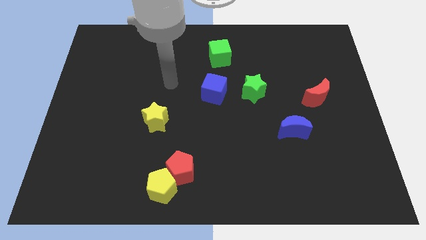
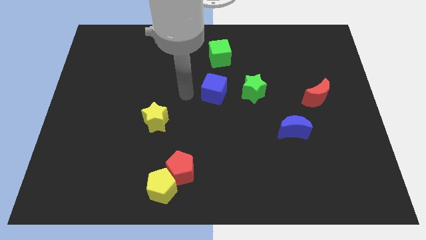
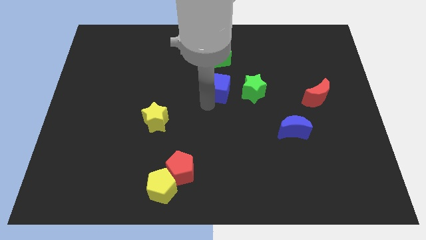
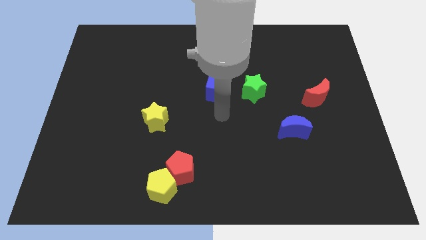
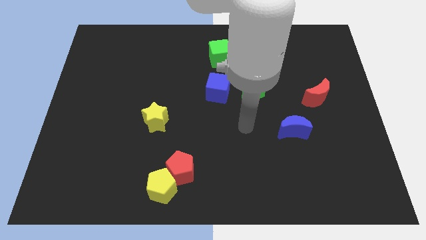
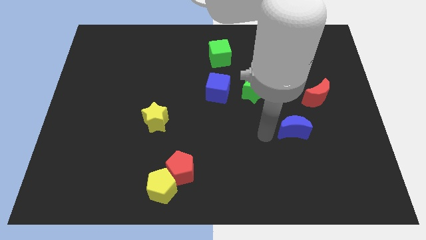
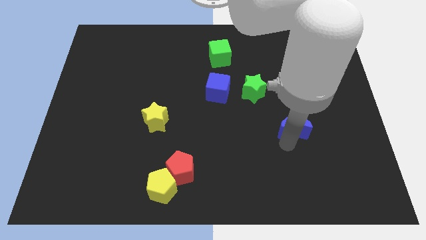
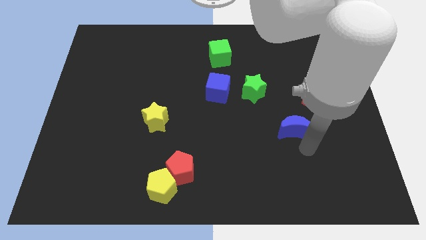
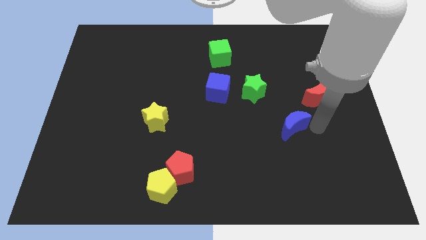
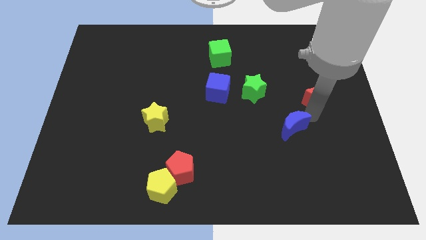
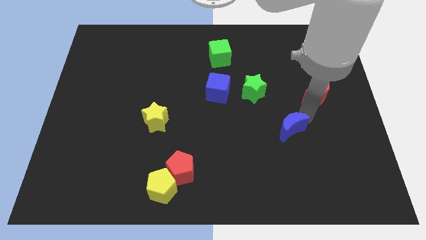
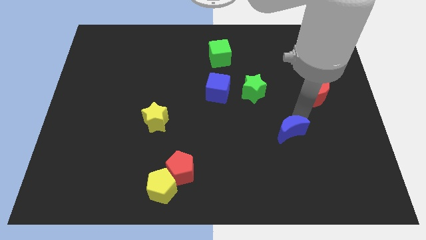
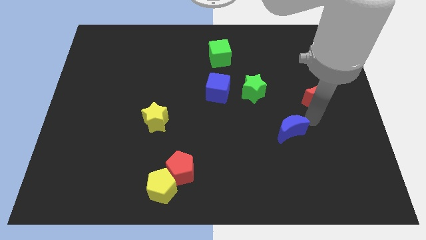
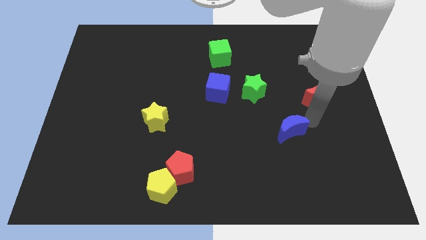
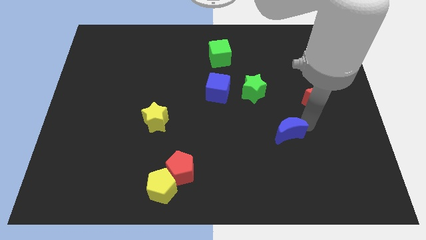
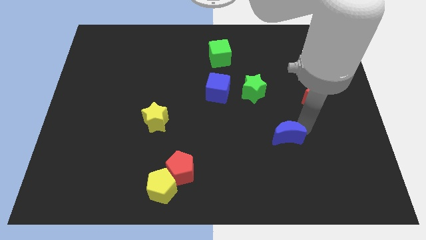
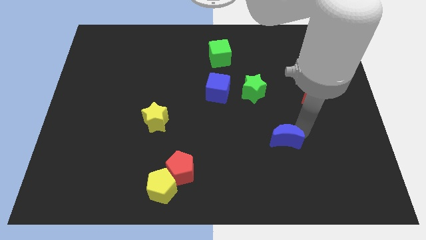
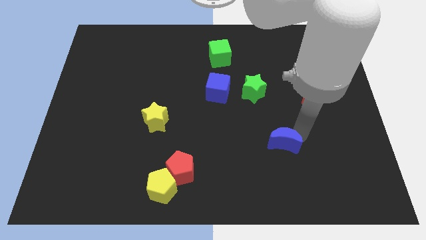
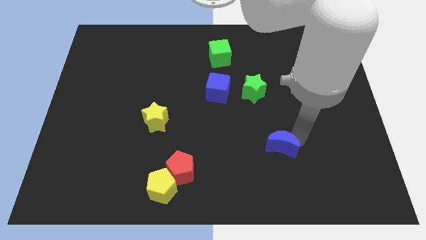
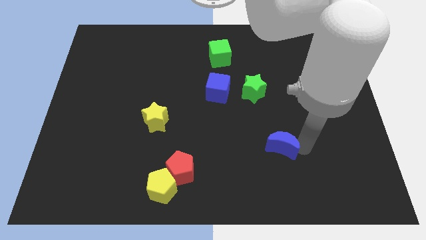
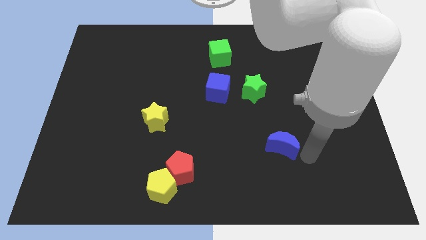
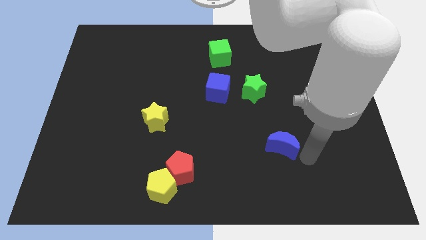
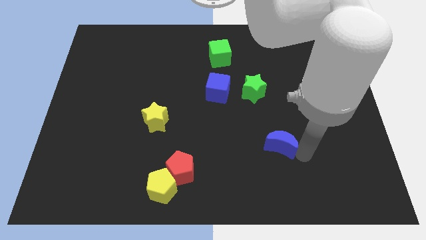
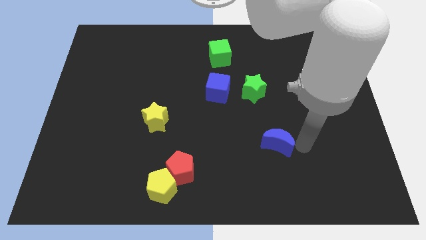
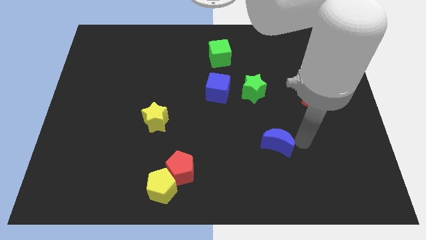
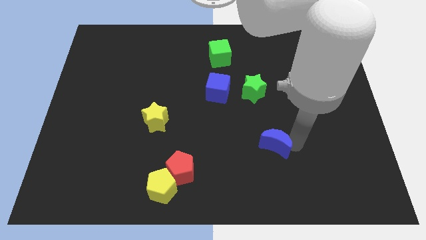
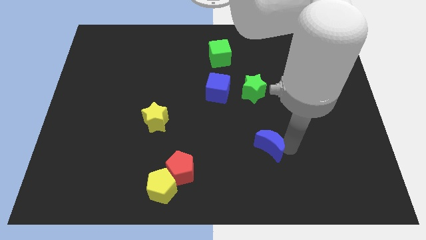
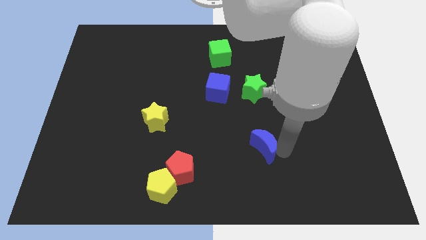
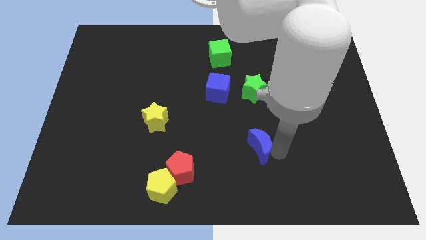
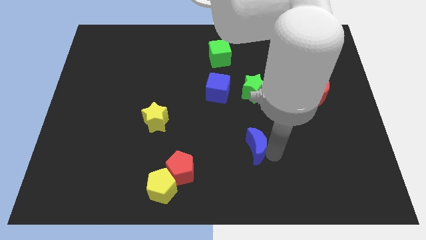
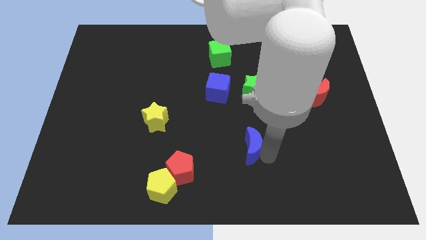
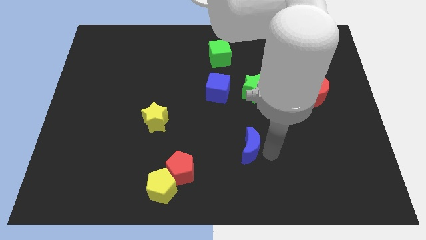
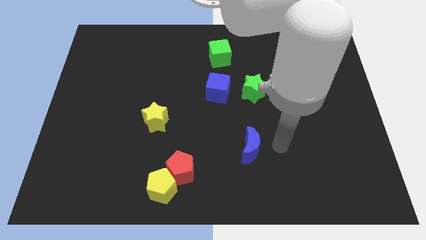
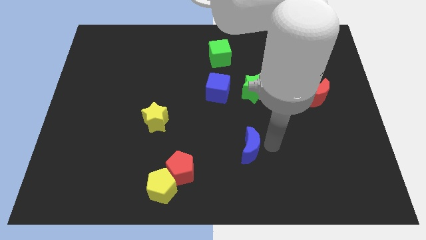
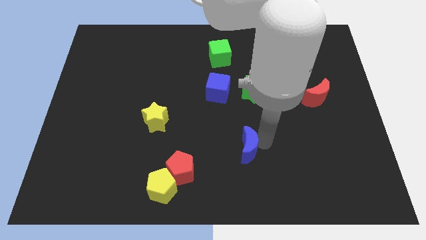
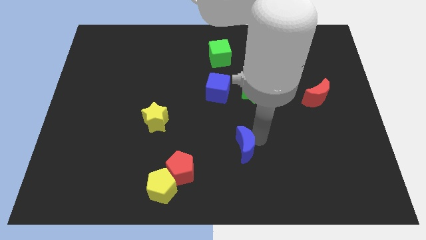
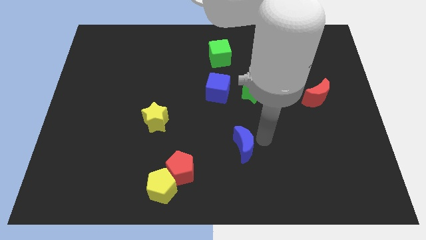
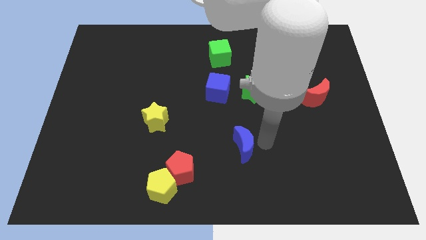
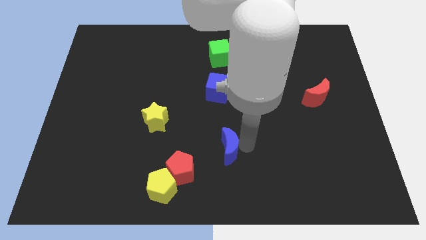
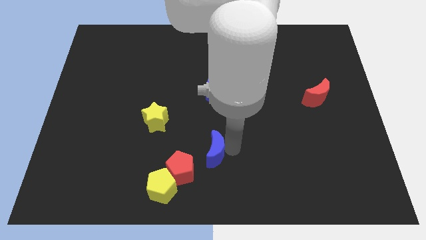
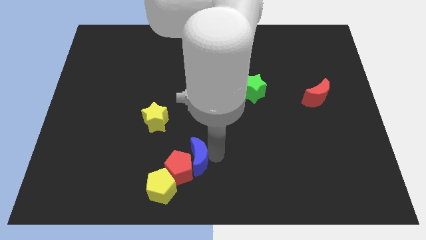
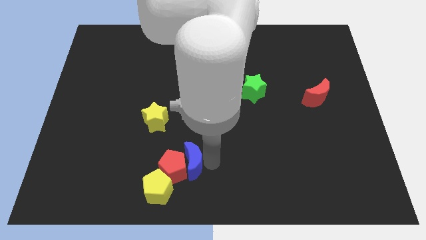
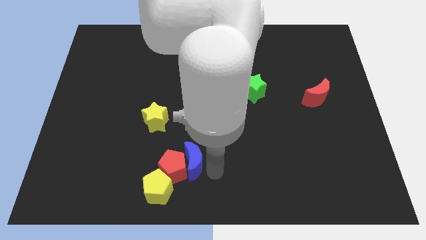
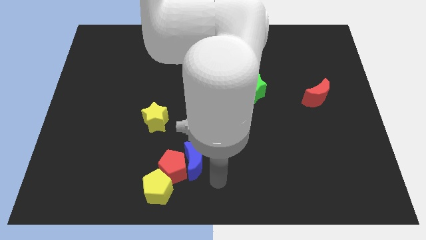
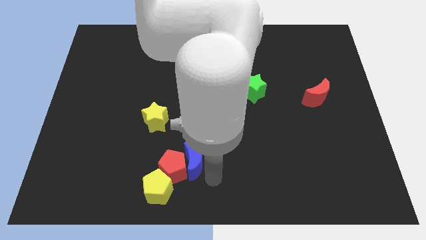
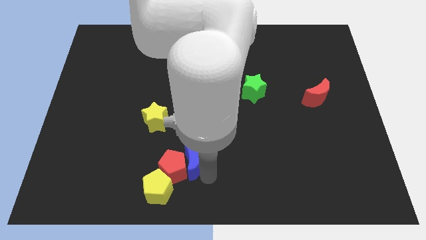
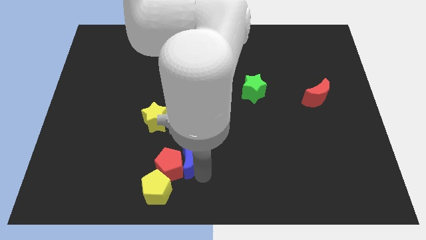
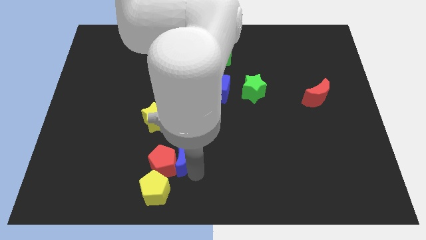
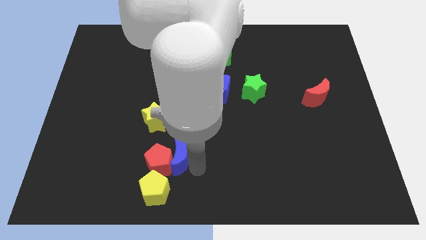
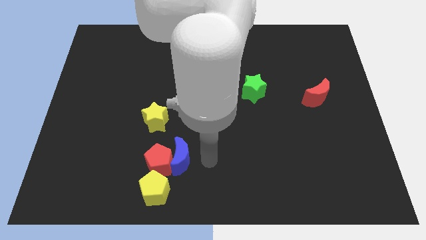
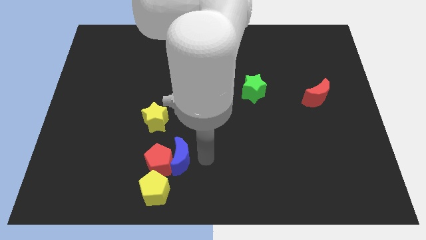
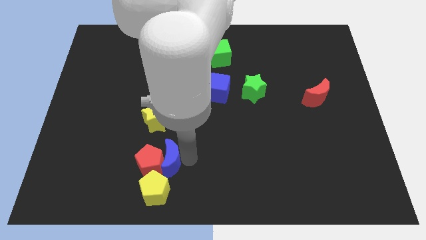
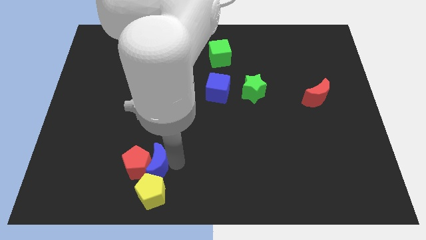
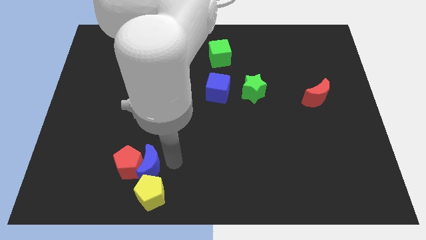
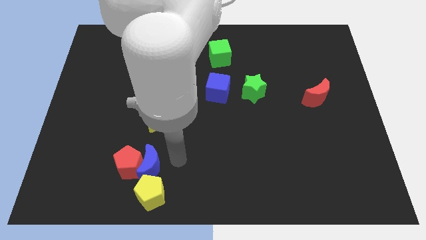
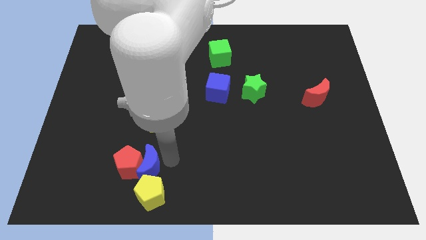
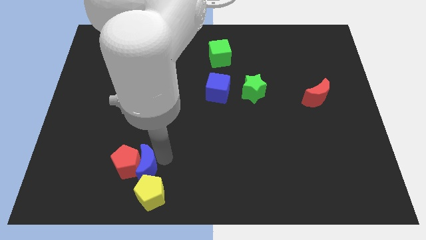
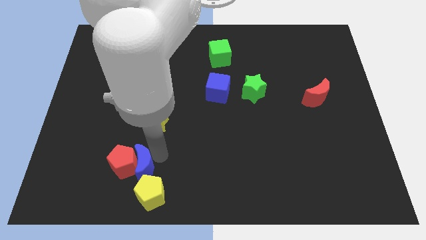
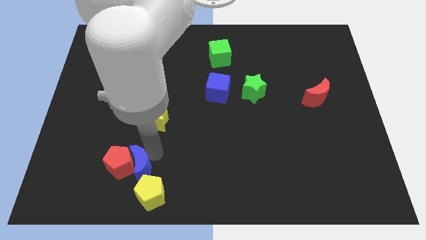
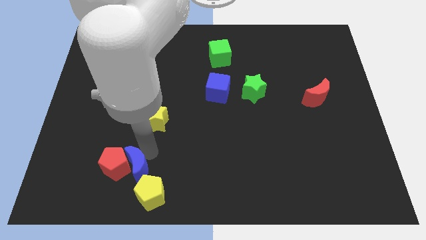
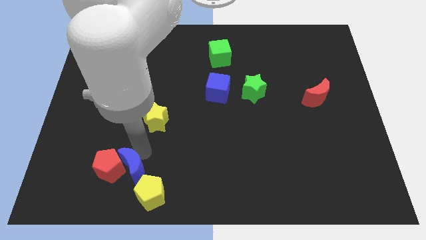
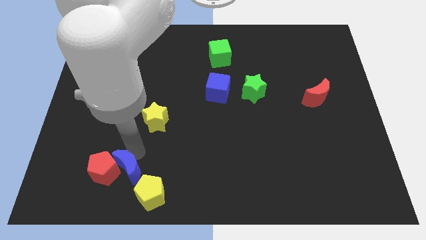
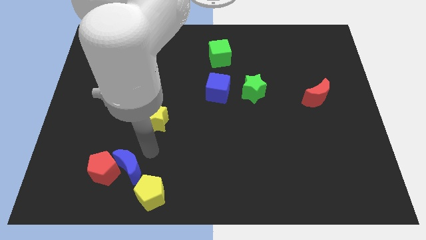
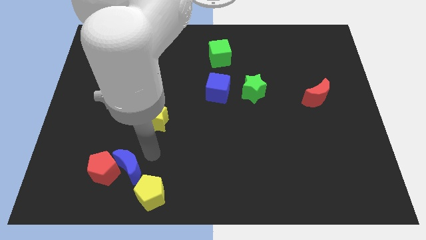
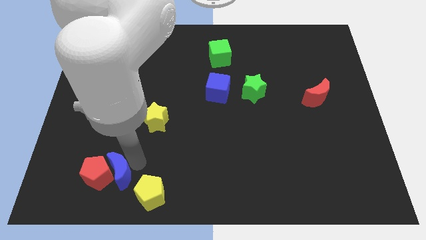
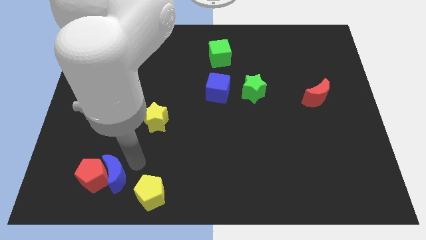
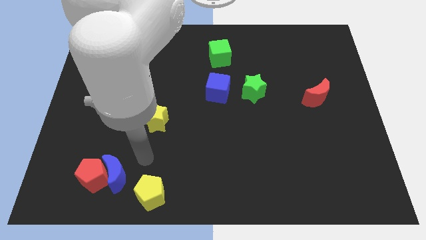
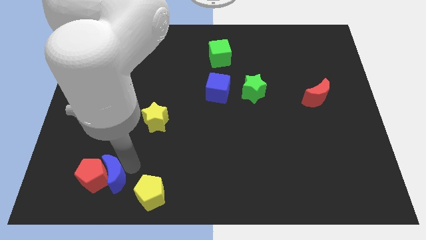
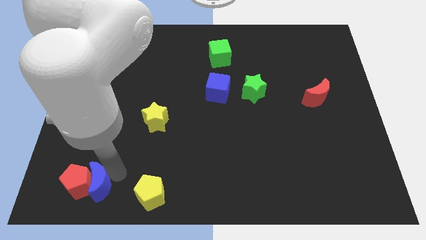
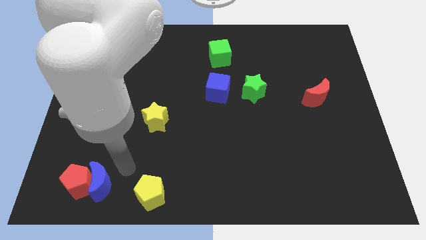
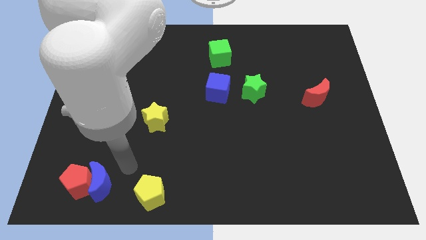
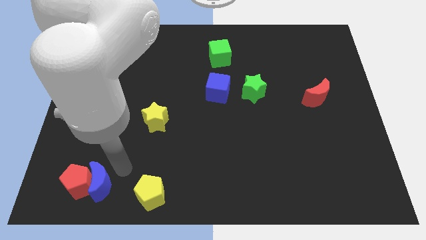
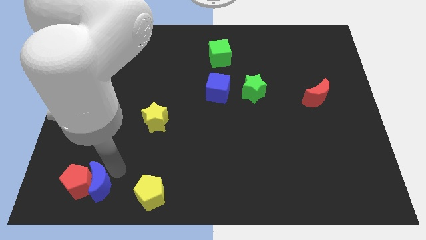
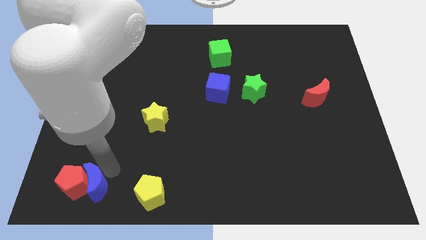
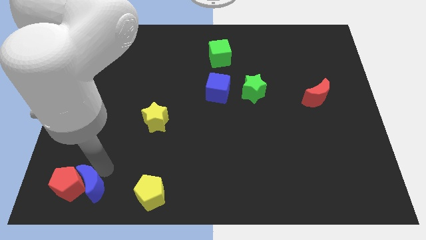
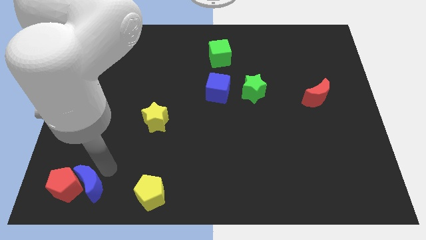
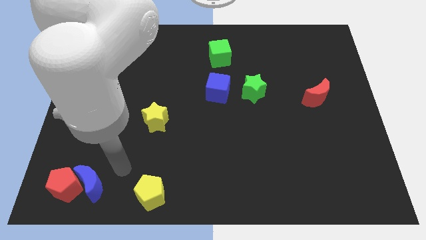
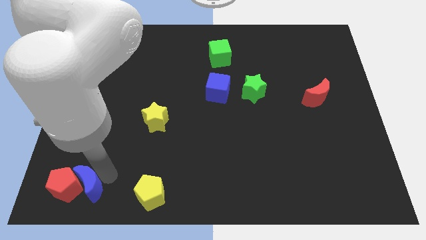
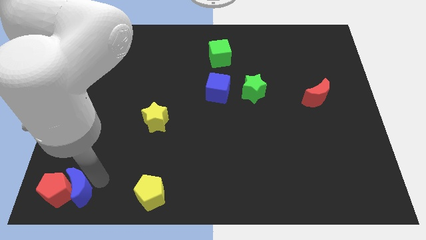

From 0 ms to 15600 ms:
put the blue moon to the bottom left
